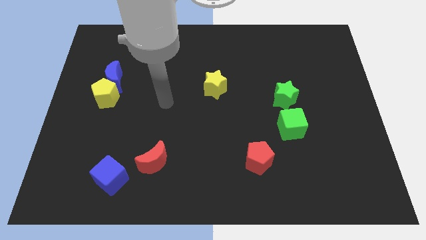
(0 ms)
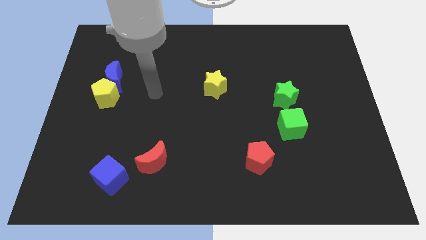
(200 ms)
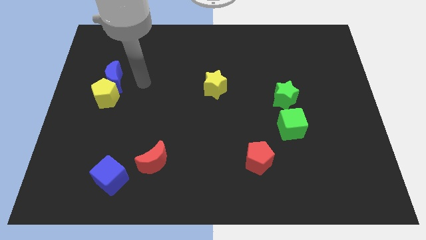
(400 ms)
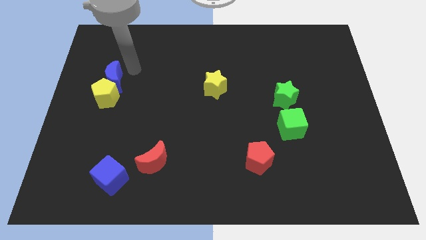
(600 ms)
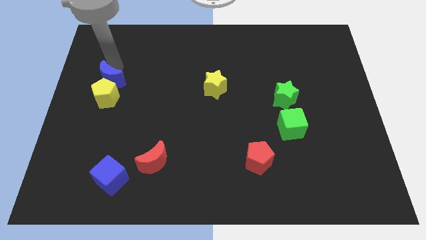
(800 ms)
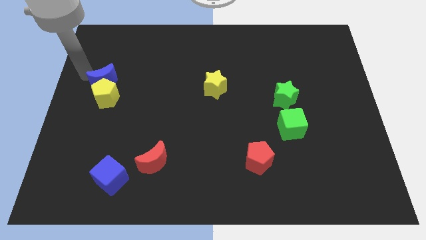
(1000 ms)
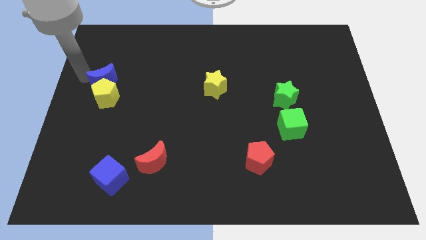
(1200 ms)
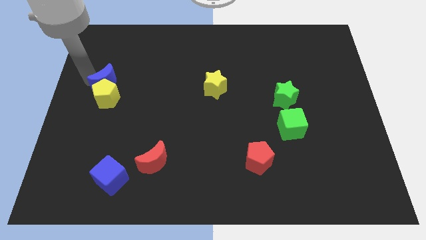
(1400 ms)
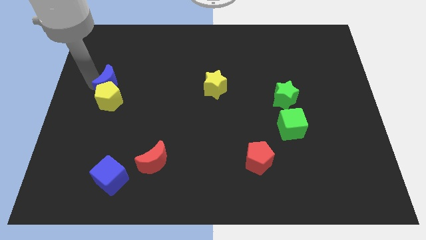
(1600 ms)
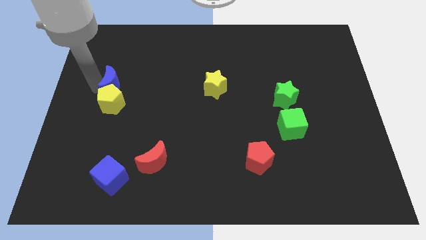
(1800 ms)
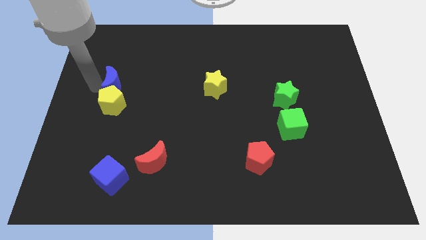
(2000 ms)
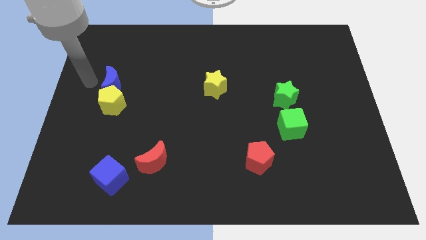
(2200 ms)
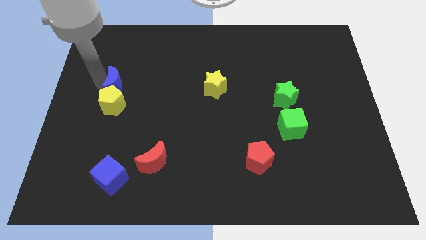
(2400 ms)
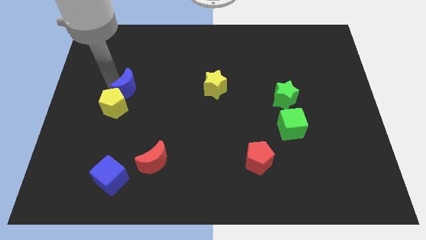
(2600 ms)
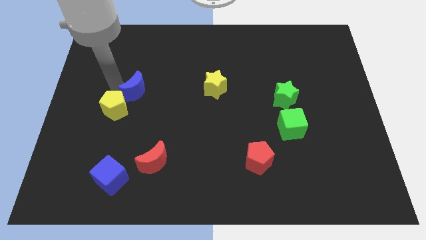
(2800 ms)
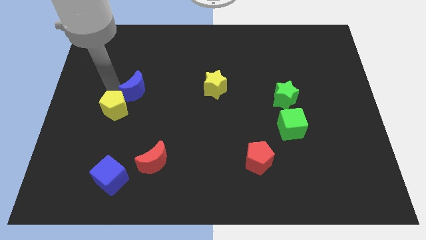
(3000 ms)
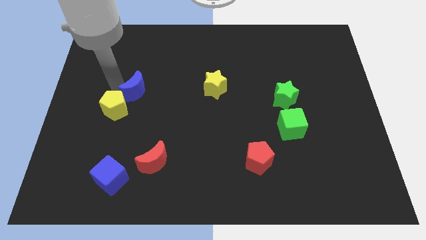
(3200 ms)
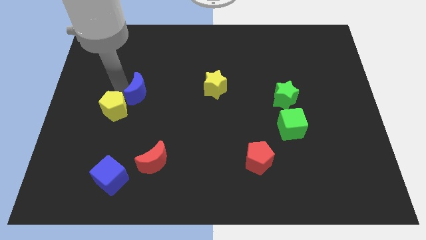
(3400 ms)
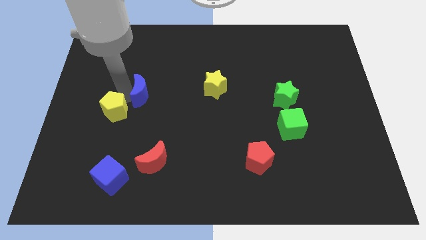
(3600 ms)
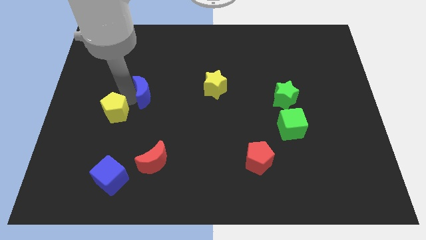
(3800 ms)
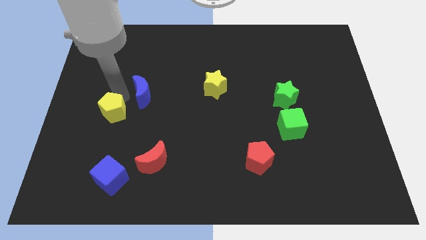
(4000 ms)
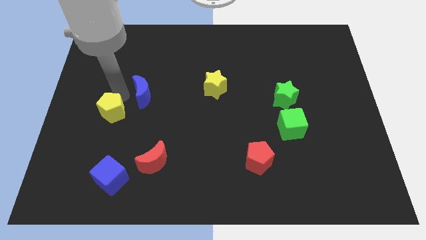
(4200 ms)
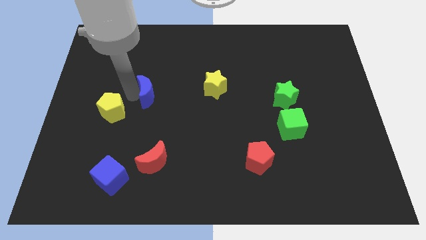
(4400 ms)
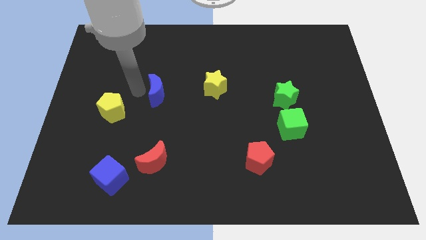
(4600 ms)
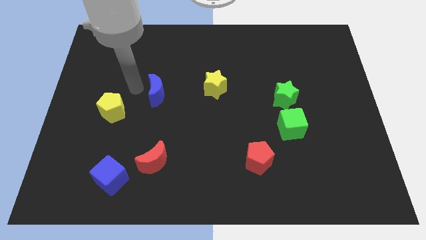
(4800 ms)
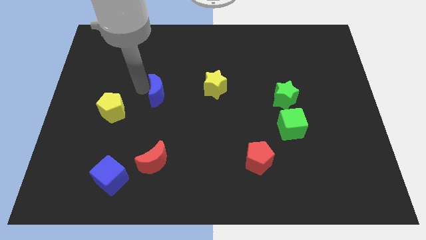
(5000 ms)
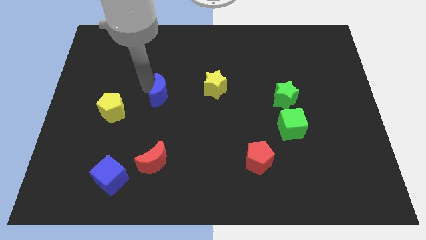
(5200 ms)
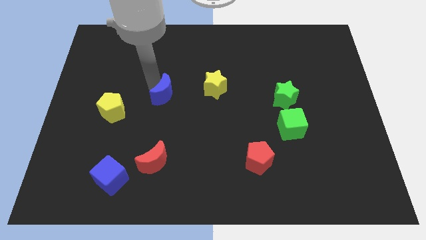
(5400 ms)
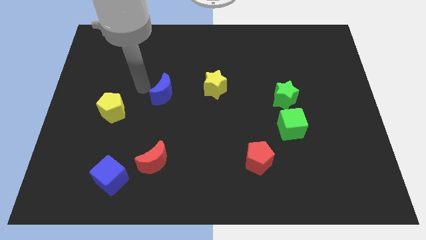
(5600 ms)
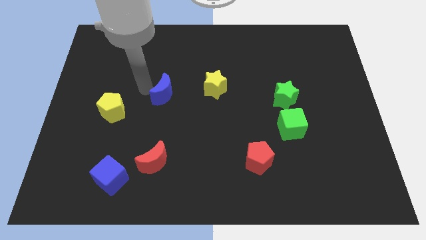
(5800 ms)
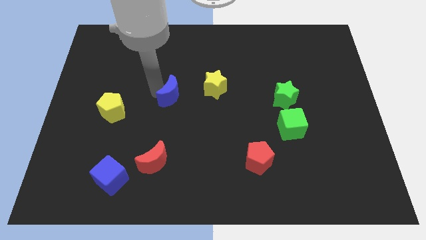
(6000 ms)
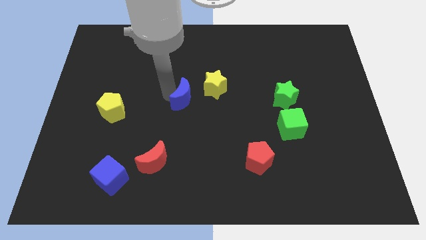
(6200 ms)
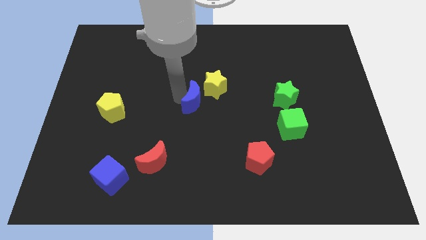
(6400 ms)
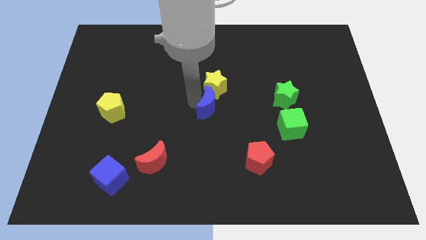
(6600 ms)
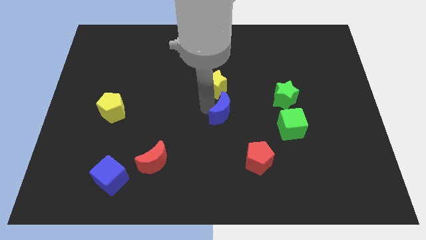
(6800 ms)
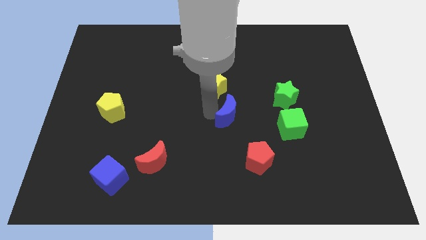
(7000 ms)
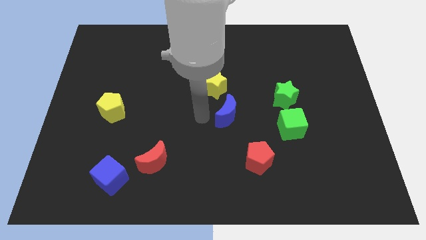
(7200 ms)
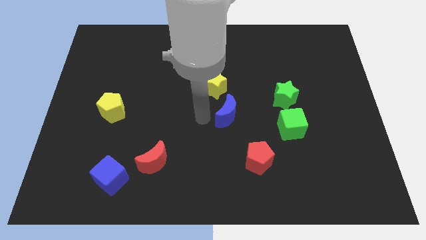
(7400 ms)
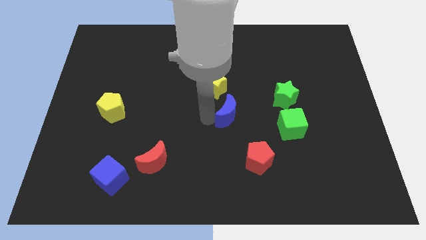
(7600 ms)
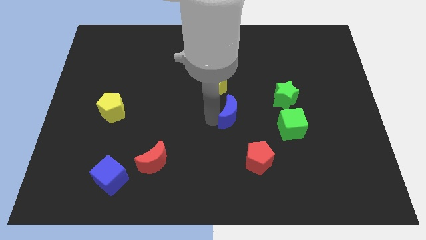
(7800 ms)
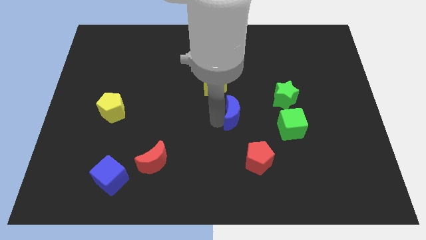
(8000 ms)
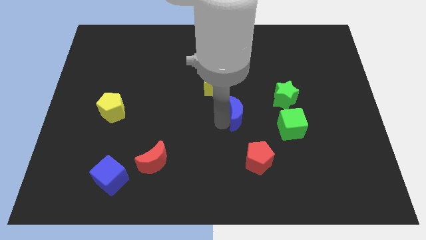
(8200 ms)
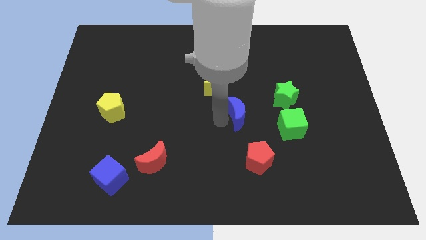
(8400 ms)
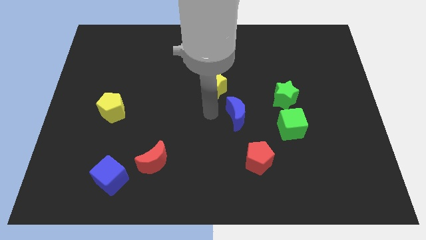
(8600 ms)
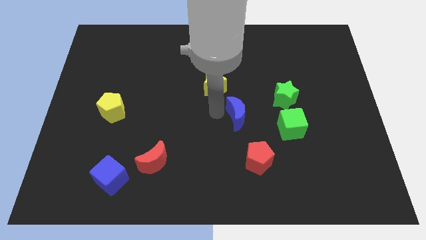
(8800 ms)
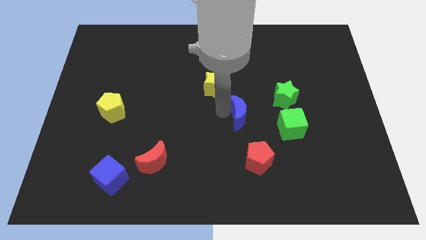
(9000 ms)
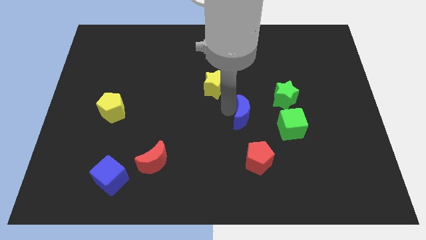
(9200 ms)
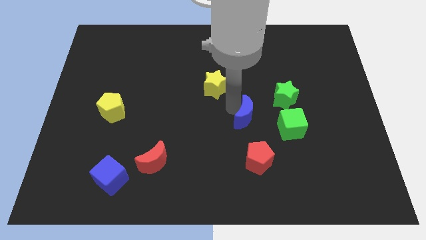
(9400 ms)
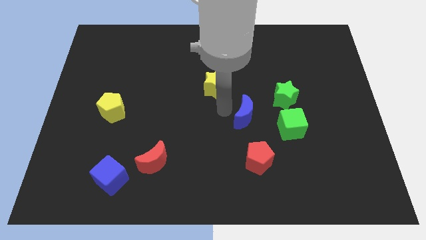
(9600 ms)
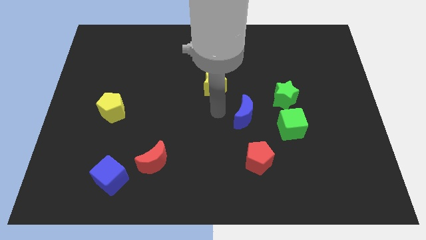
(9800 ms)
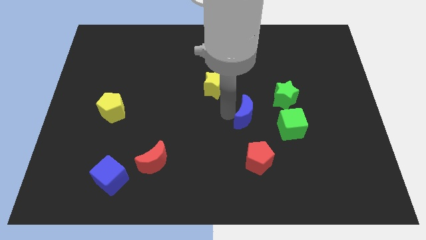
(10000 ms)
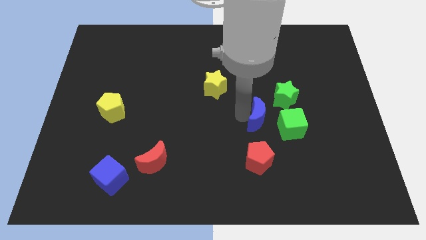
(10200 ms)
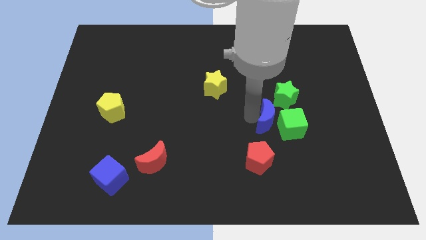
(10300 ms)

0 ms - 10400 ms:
put the blue moon to the green cube

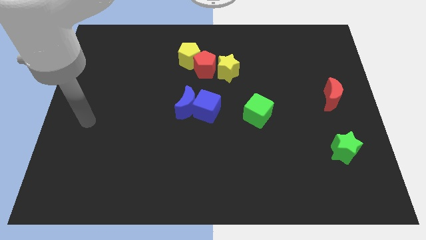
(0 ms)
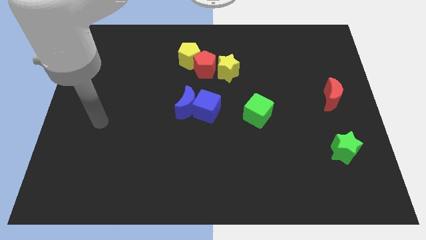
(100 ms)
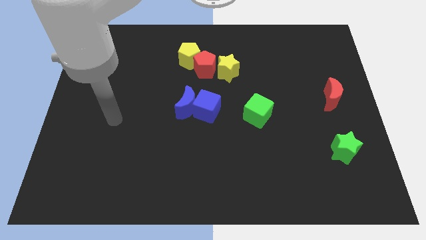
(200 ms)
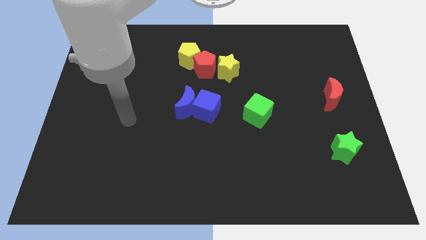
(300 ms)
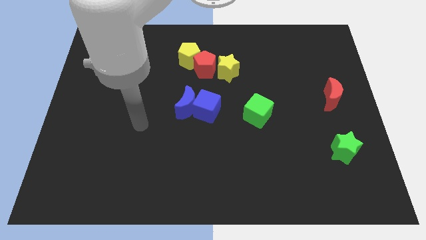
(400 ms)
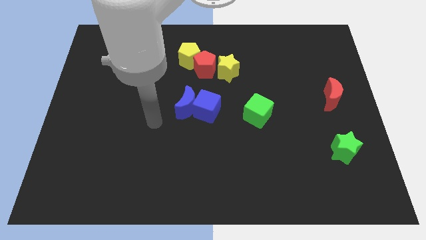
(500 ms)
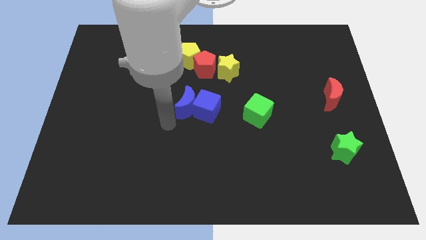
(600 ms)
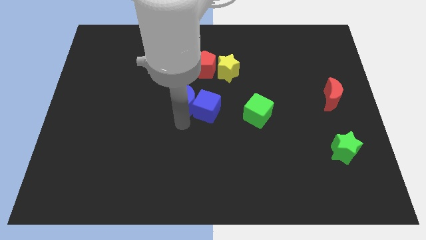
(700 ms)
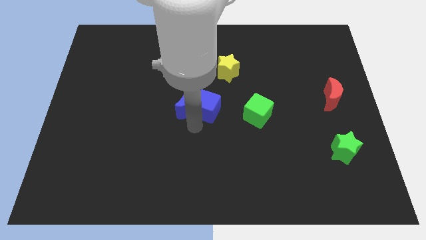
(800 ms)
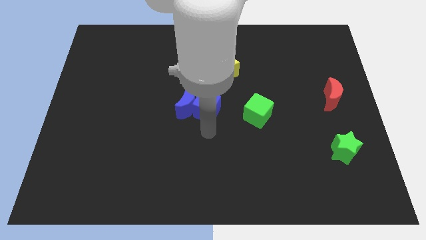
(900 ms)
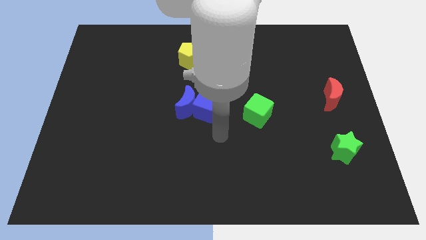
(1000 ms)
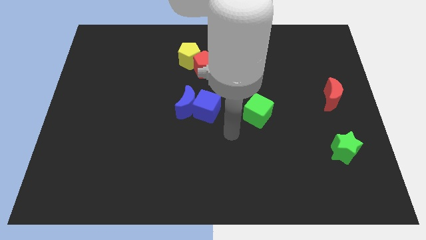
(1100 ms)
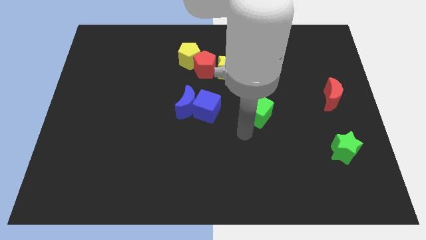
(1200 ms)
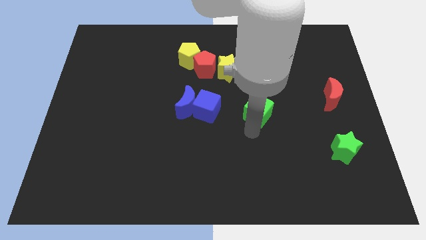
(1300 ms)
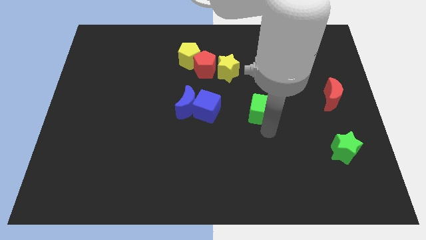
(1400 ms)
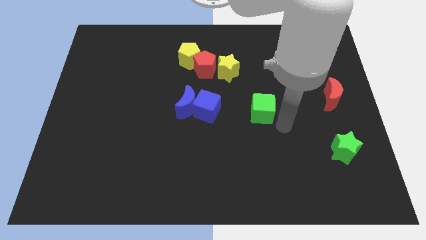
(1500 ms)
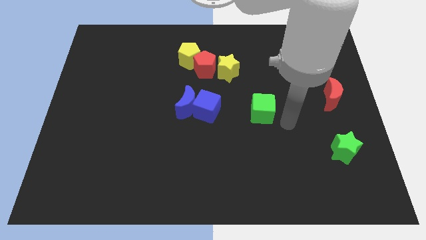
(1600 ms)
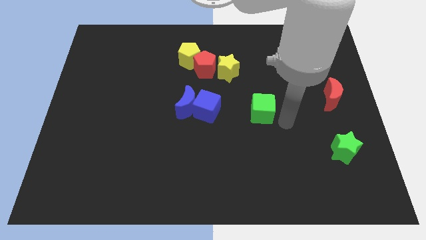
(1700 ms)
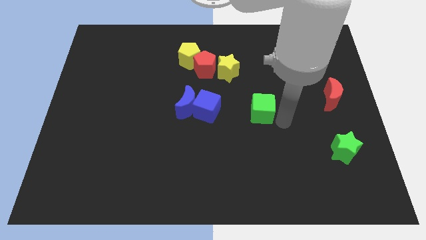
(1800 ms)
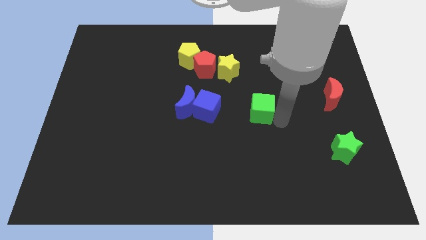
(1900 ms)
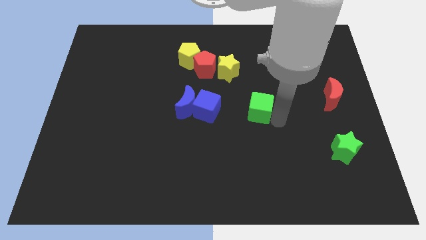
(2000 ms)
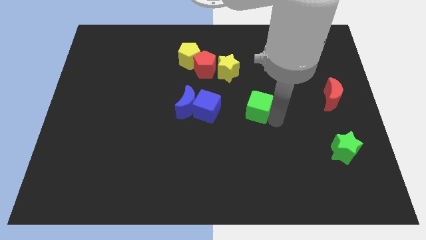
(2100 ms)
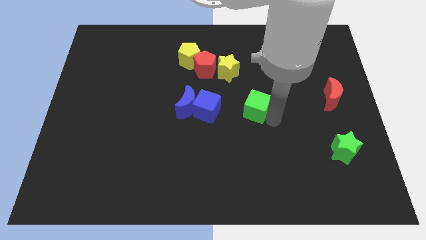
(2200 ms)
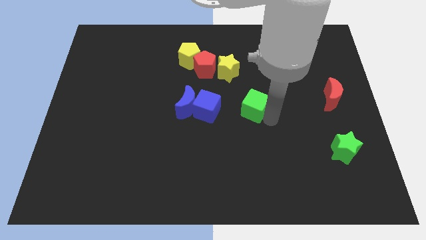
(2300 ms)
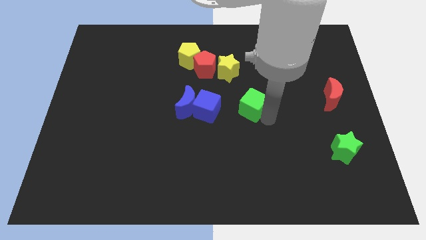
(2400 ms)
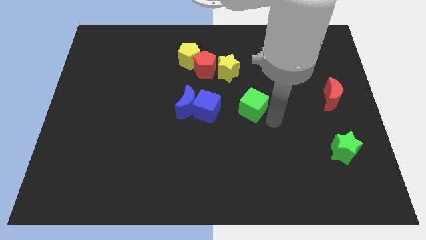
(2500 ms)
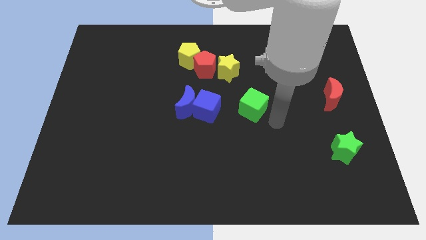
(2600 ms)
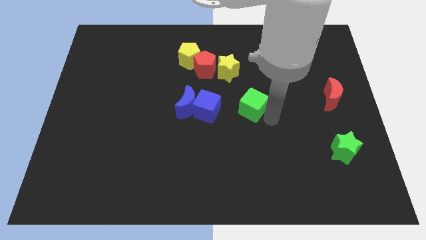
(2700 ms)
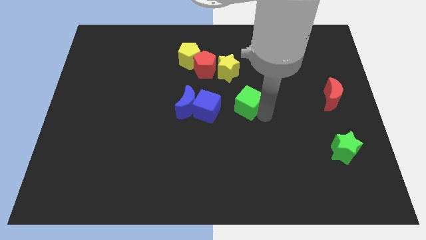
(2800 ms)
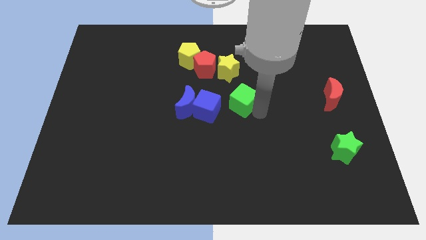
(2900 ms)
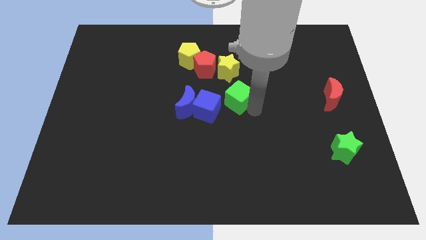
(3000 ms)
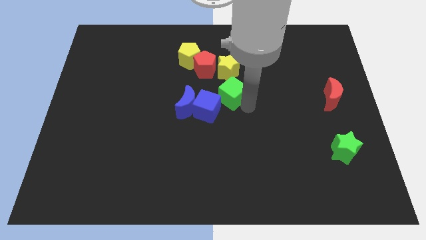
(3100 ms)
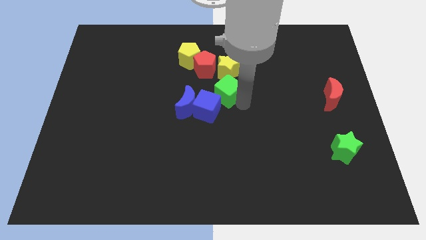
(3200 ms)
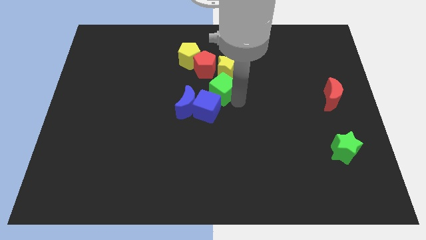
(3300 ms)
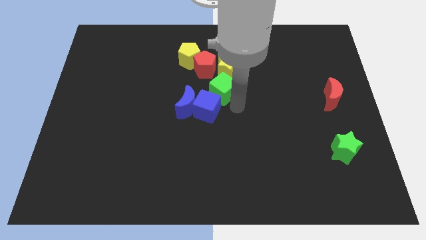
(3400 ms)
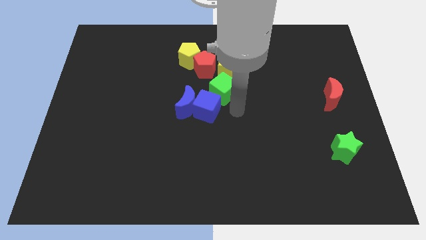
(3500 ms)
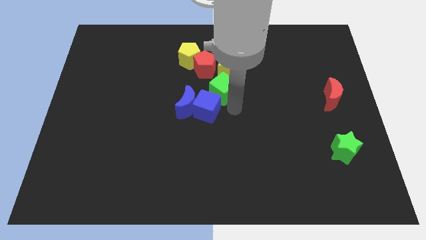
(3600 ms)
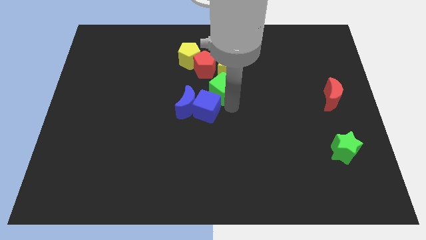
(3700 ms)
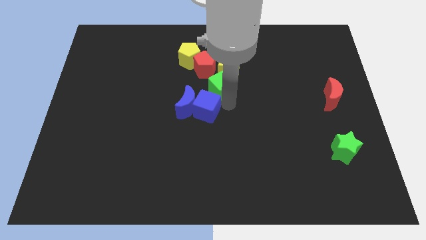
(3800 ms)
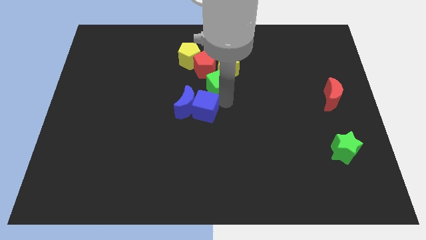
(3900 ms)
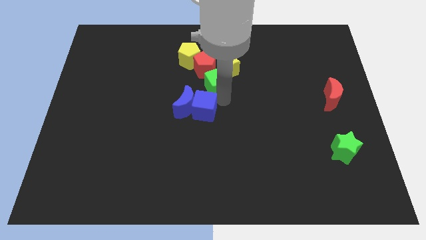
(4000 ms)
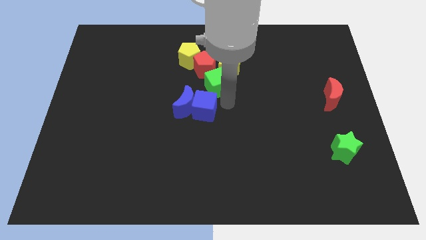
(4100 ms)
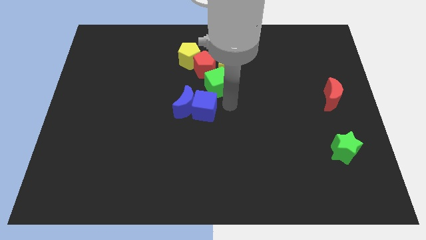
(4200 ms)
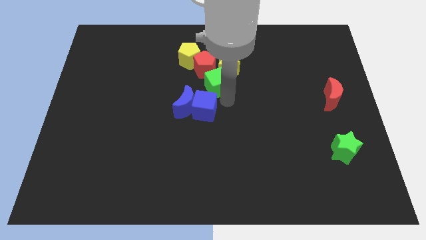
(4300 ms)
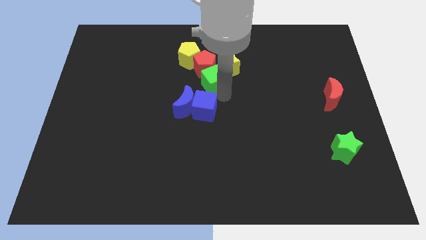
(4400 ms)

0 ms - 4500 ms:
slide the green cube next to the red pentagon
